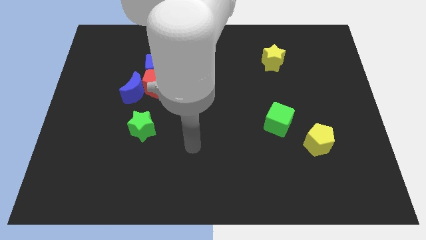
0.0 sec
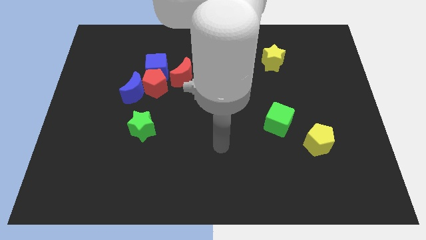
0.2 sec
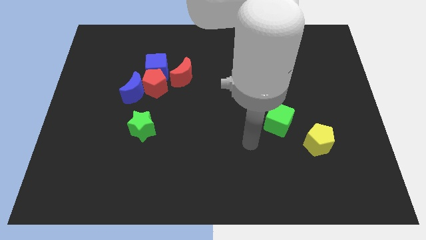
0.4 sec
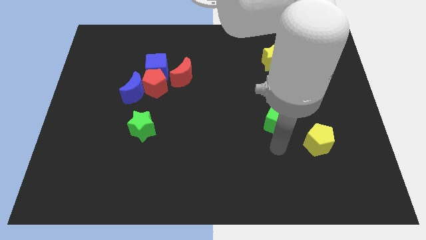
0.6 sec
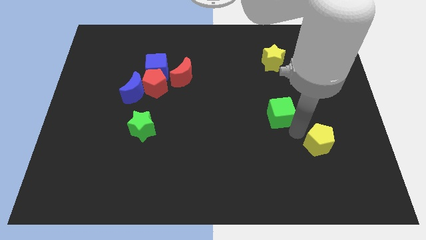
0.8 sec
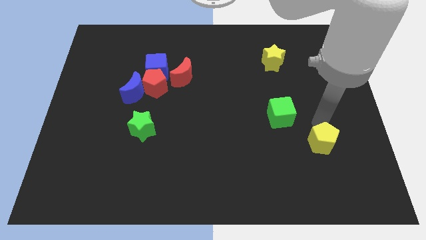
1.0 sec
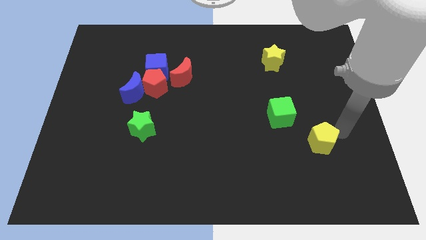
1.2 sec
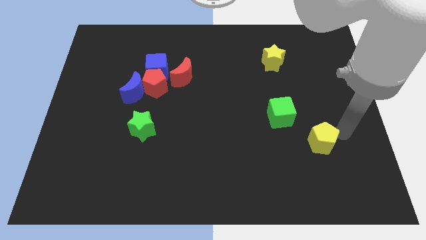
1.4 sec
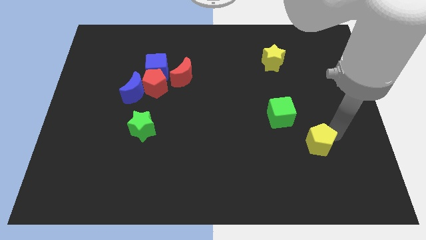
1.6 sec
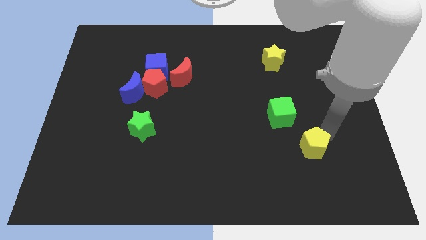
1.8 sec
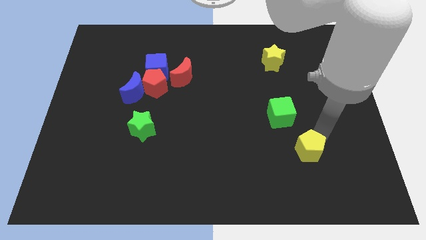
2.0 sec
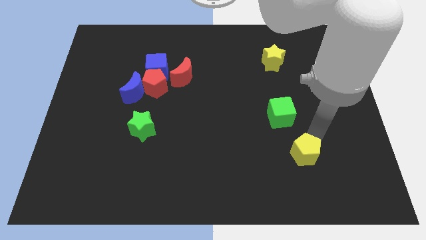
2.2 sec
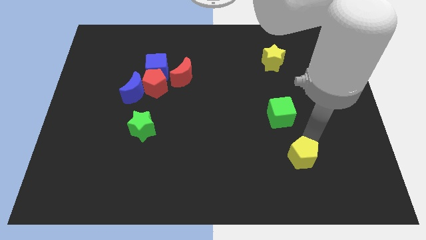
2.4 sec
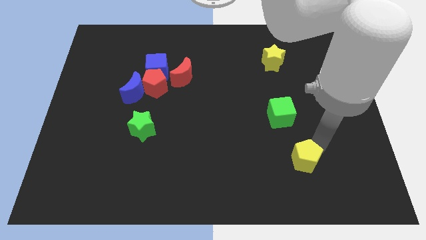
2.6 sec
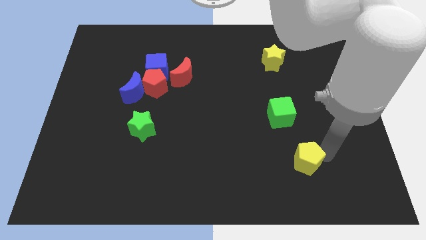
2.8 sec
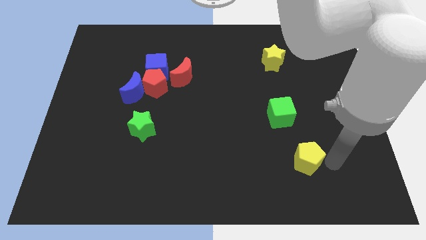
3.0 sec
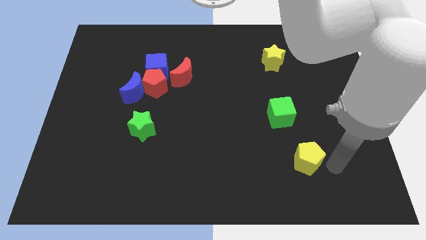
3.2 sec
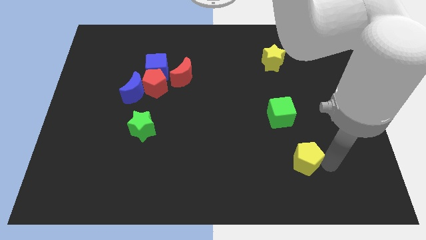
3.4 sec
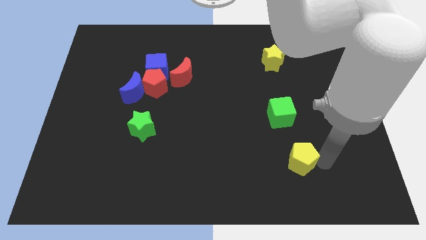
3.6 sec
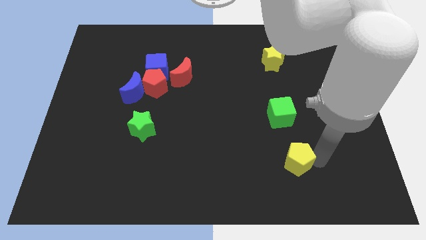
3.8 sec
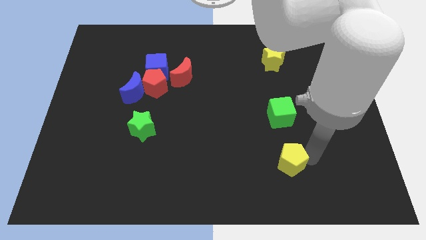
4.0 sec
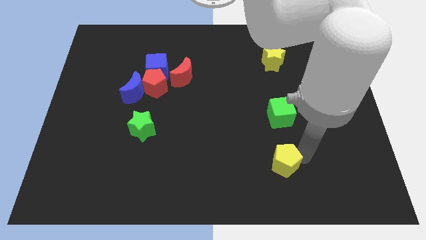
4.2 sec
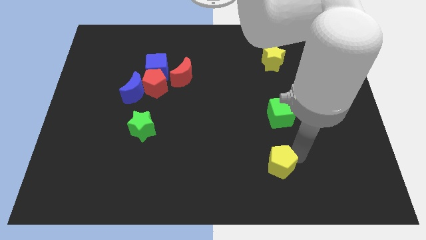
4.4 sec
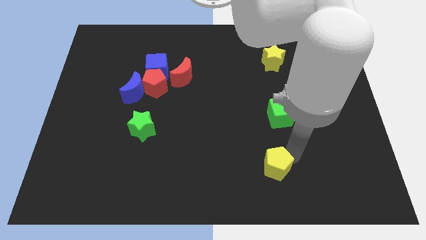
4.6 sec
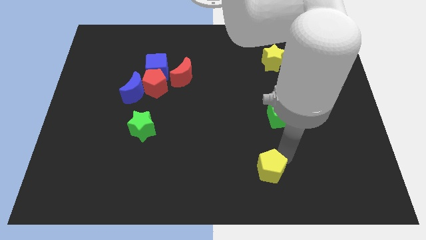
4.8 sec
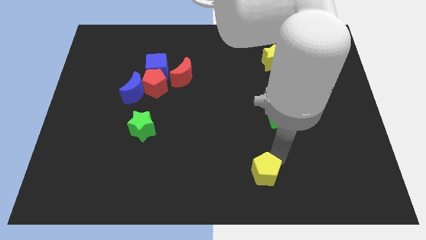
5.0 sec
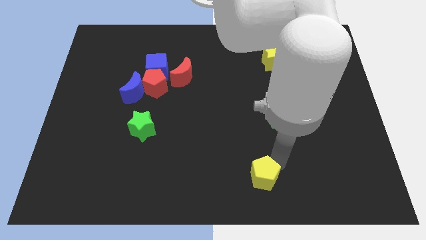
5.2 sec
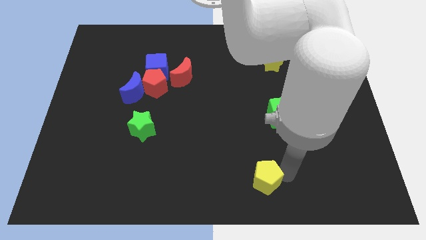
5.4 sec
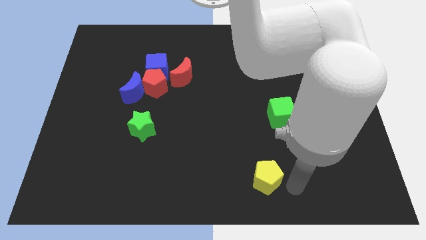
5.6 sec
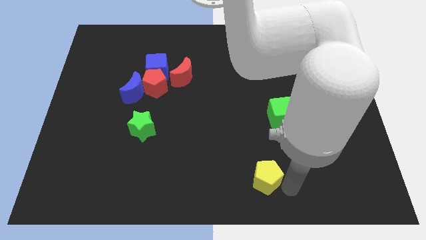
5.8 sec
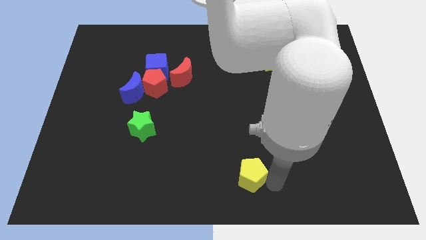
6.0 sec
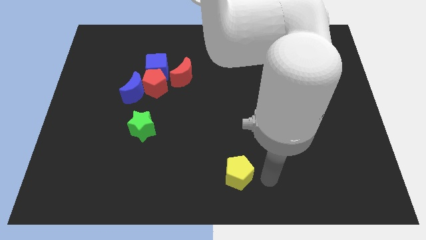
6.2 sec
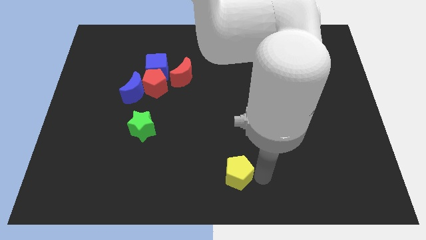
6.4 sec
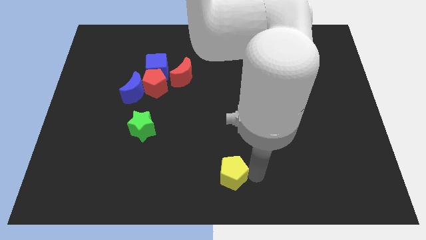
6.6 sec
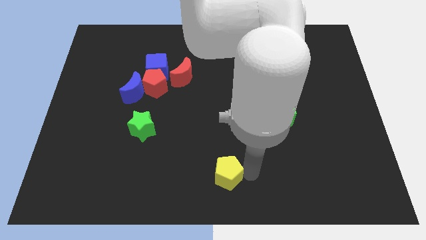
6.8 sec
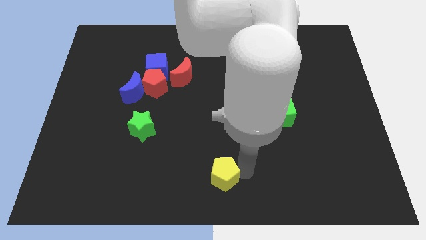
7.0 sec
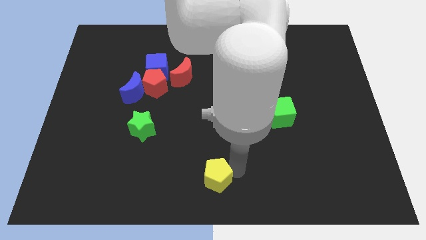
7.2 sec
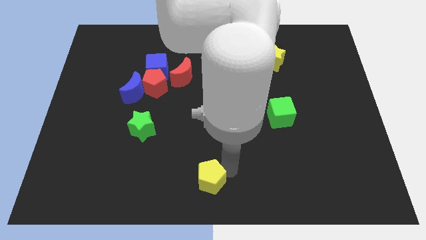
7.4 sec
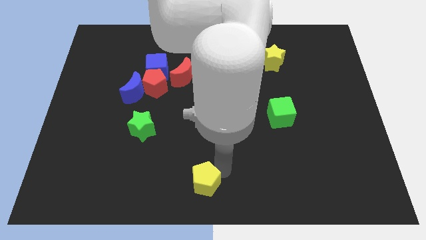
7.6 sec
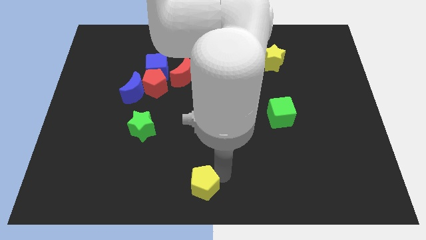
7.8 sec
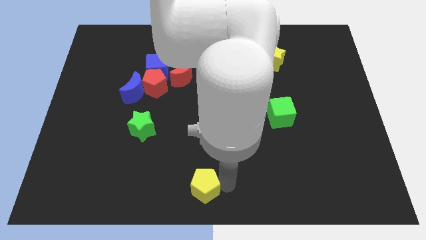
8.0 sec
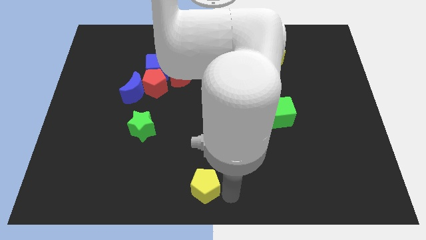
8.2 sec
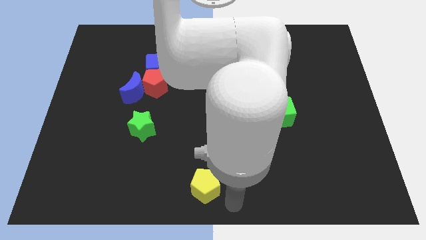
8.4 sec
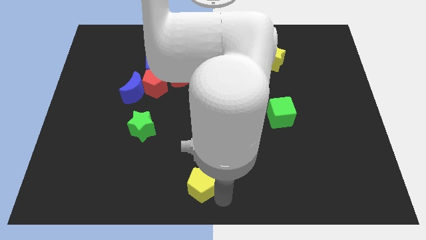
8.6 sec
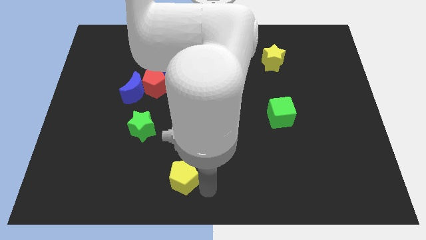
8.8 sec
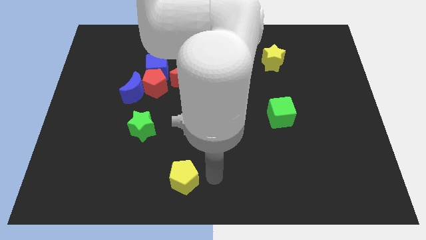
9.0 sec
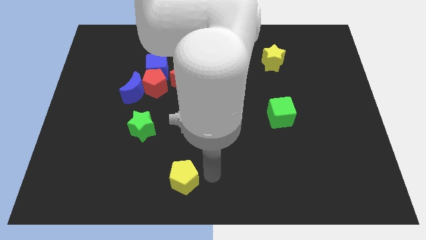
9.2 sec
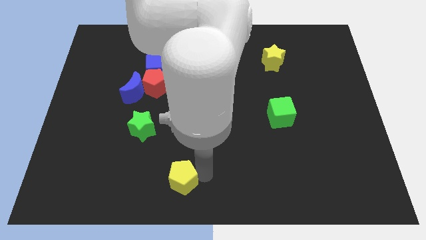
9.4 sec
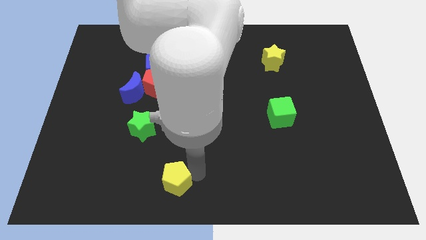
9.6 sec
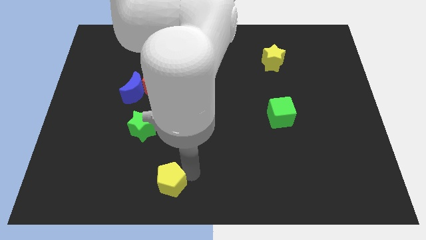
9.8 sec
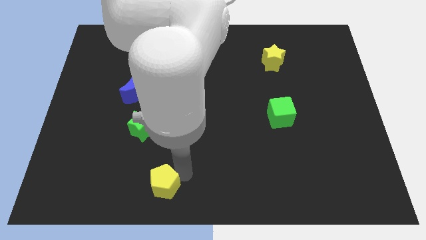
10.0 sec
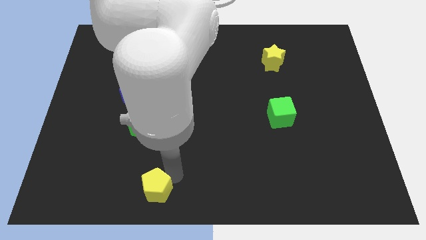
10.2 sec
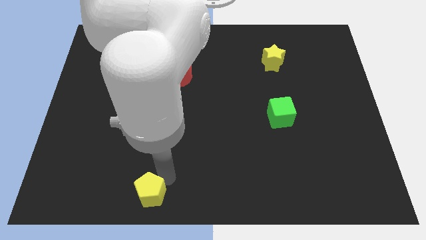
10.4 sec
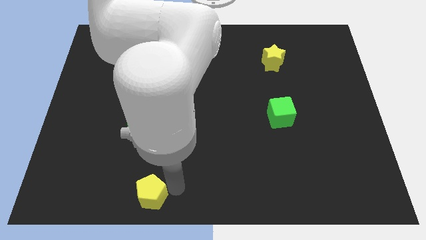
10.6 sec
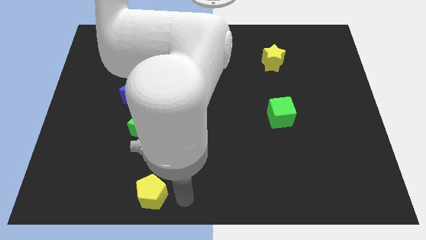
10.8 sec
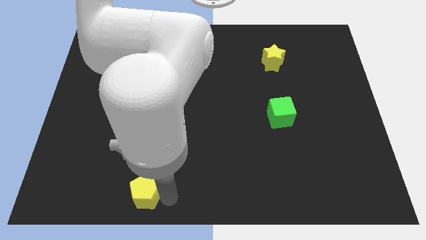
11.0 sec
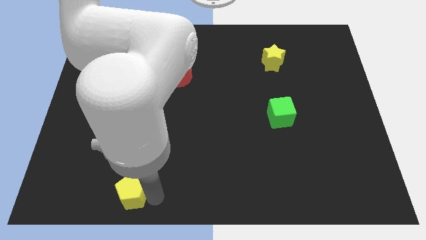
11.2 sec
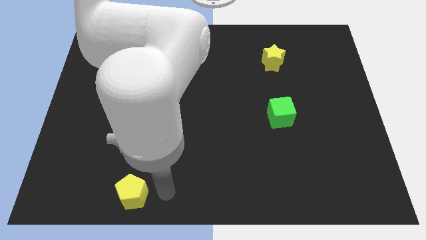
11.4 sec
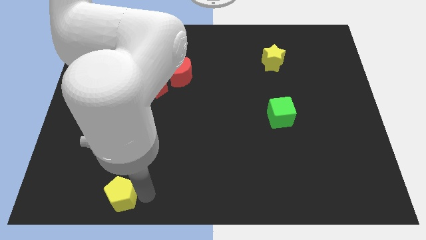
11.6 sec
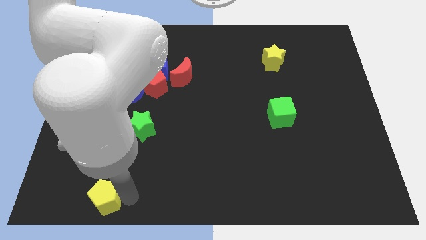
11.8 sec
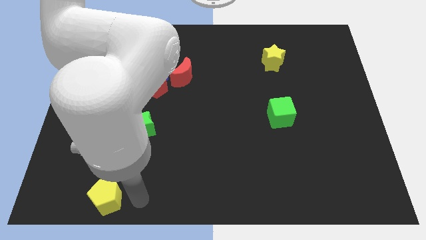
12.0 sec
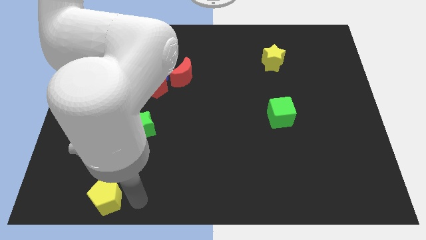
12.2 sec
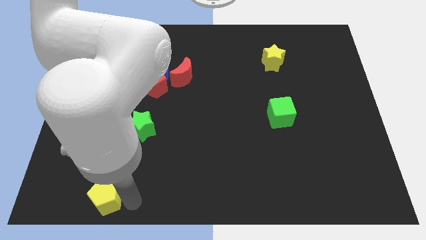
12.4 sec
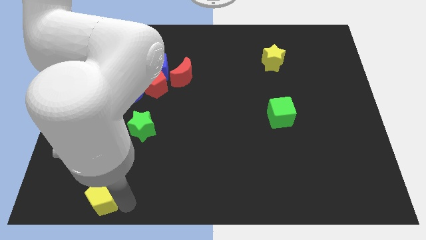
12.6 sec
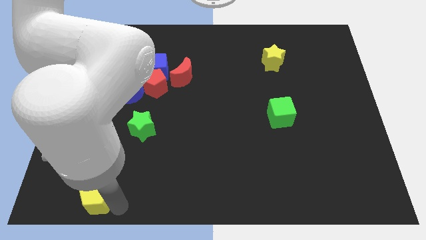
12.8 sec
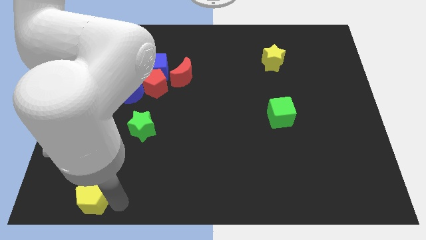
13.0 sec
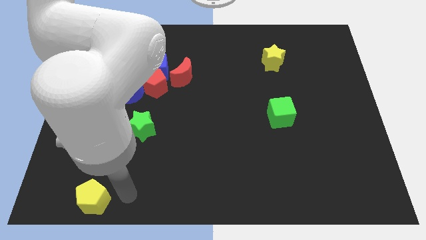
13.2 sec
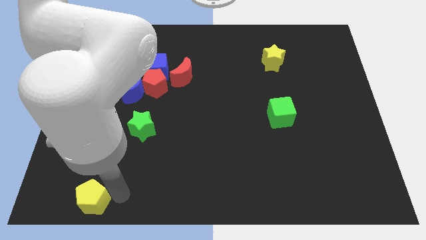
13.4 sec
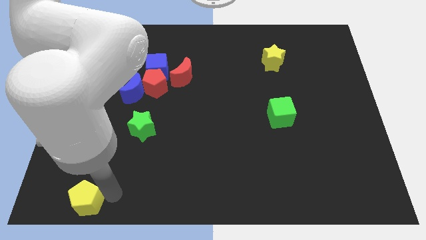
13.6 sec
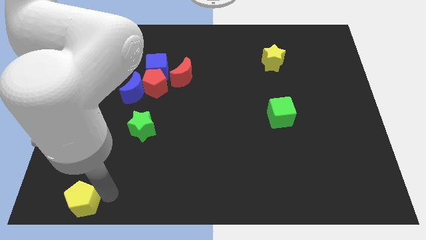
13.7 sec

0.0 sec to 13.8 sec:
put the yellow pentagon to the bottom left
